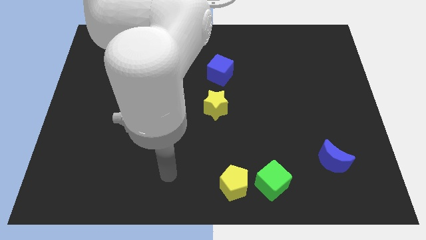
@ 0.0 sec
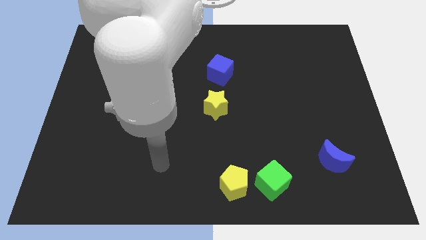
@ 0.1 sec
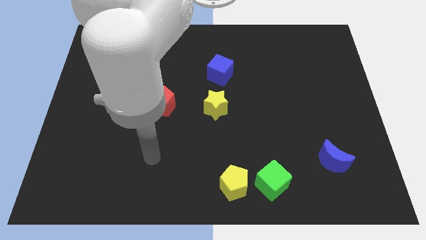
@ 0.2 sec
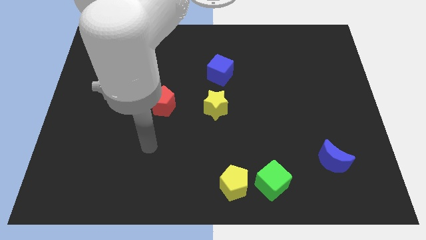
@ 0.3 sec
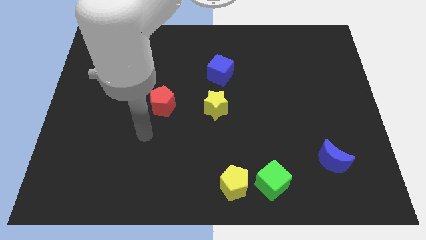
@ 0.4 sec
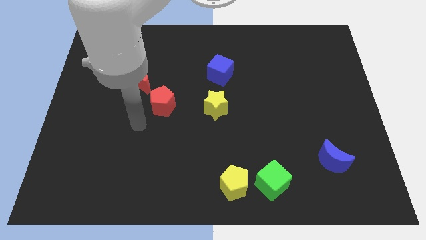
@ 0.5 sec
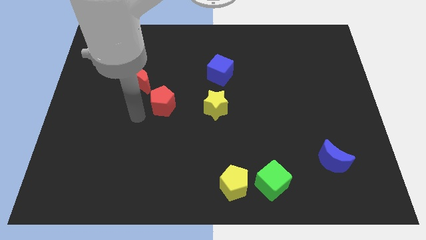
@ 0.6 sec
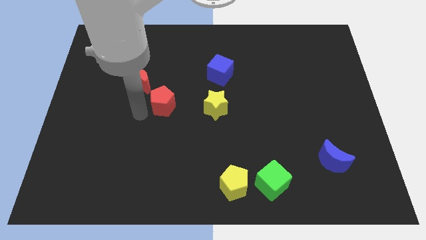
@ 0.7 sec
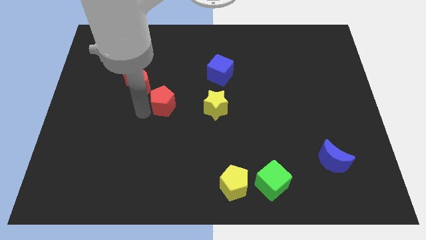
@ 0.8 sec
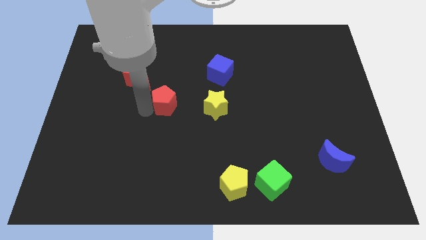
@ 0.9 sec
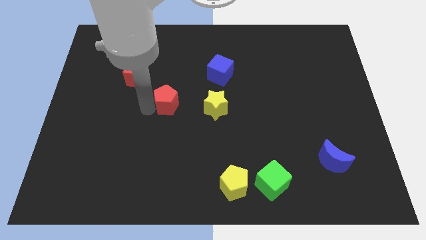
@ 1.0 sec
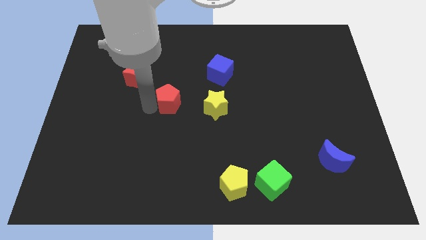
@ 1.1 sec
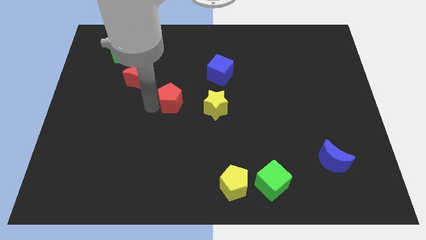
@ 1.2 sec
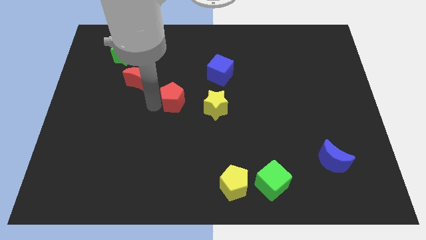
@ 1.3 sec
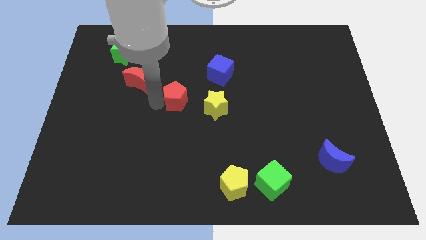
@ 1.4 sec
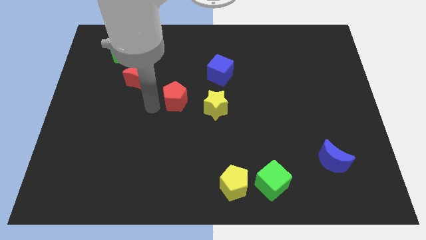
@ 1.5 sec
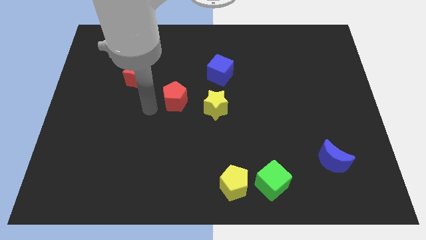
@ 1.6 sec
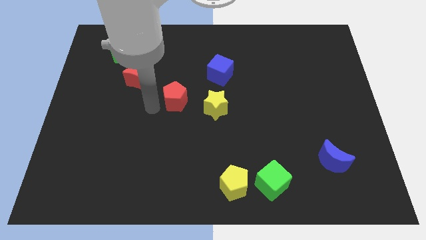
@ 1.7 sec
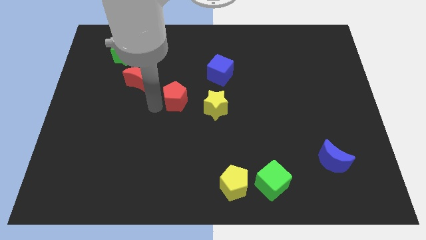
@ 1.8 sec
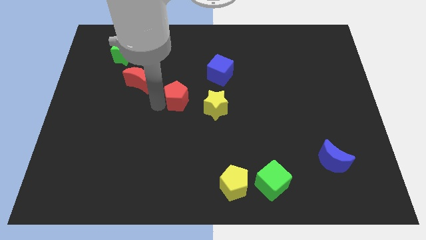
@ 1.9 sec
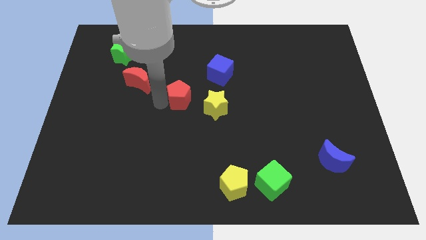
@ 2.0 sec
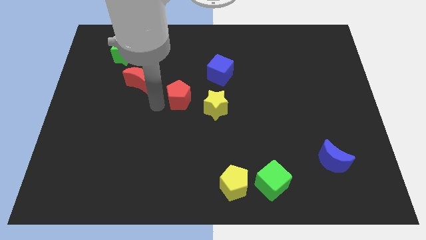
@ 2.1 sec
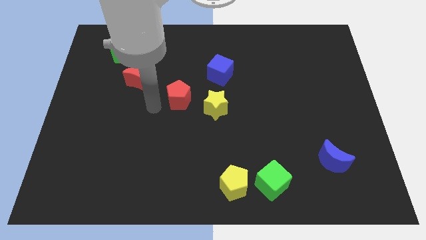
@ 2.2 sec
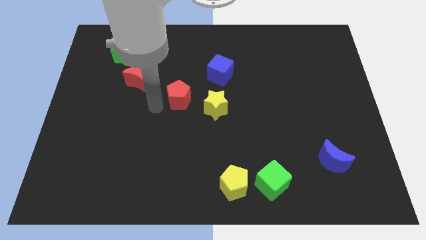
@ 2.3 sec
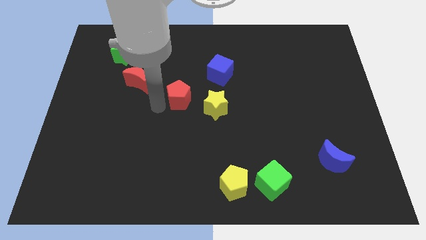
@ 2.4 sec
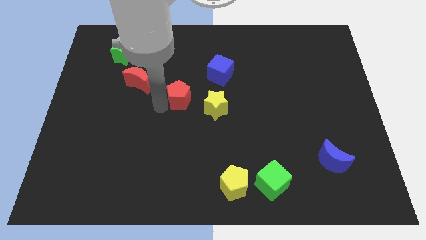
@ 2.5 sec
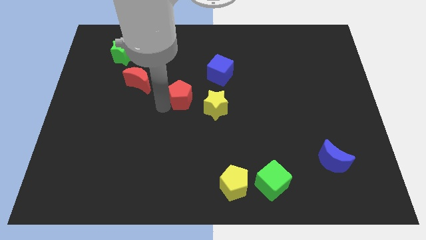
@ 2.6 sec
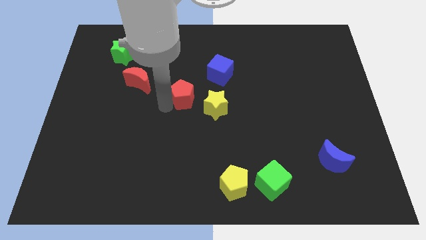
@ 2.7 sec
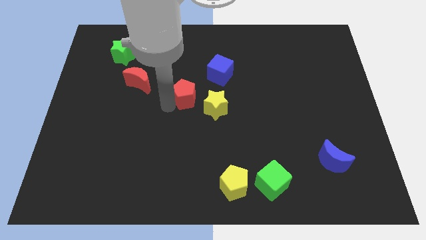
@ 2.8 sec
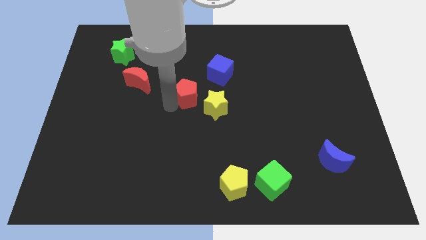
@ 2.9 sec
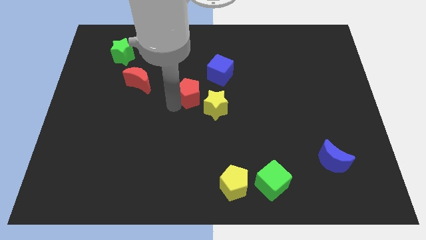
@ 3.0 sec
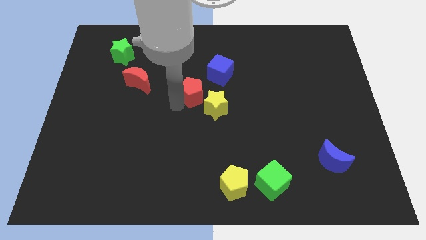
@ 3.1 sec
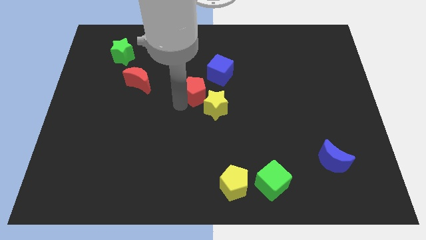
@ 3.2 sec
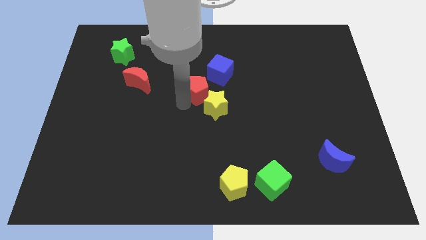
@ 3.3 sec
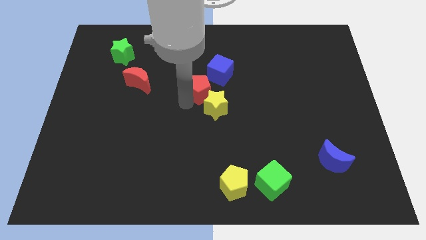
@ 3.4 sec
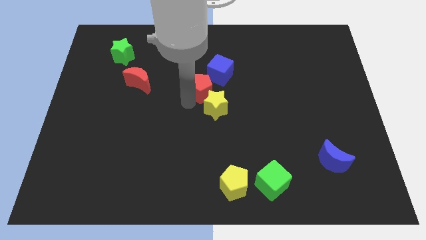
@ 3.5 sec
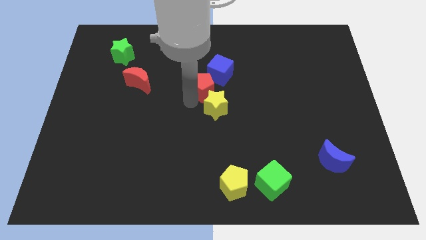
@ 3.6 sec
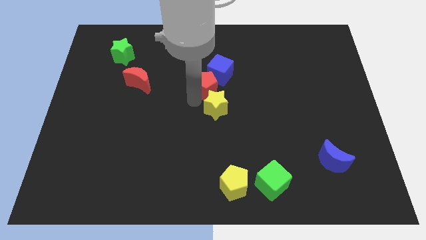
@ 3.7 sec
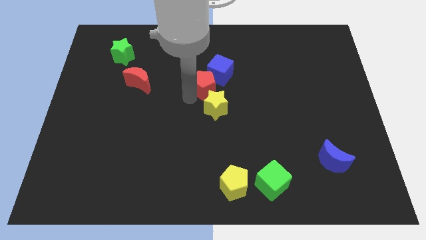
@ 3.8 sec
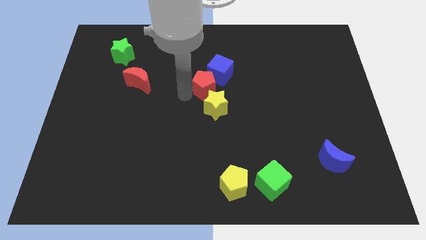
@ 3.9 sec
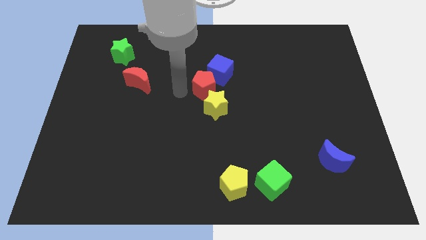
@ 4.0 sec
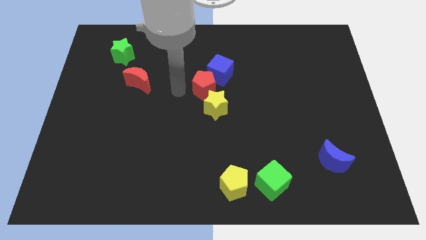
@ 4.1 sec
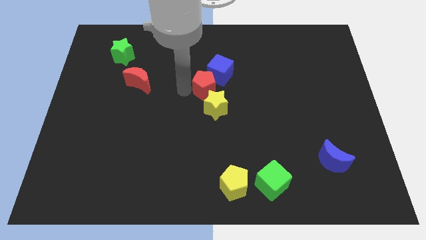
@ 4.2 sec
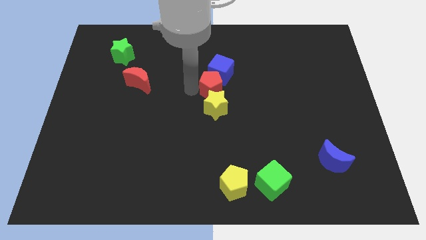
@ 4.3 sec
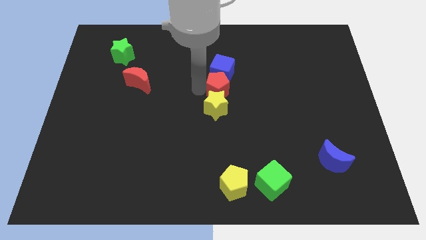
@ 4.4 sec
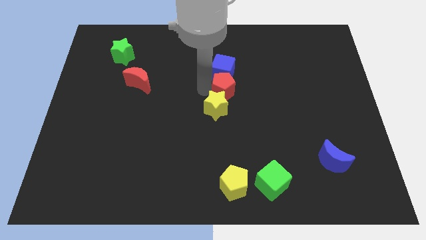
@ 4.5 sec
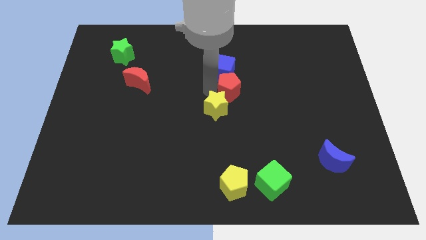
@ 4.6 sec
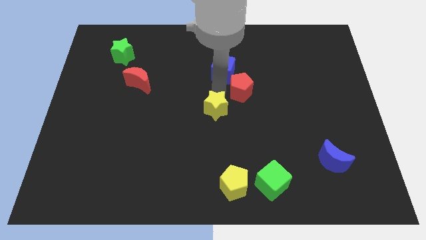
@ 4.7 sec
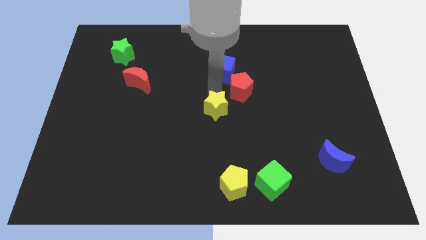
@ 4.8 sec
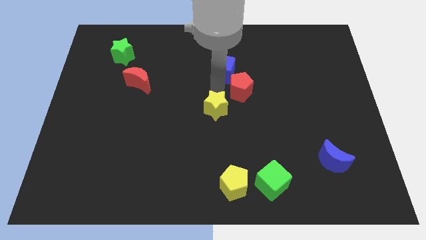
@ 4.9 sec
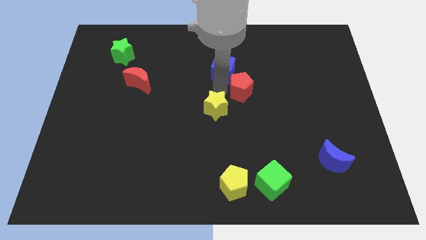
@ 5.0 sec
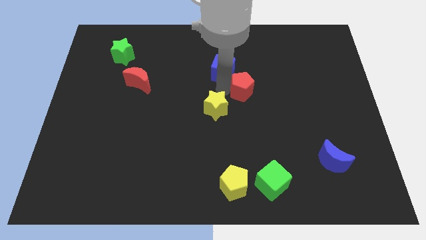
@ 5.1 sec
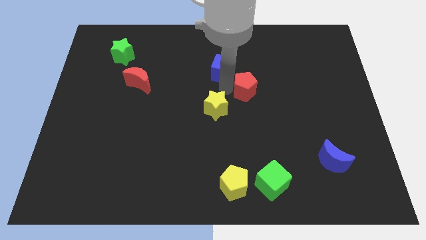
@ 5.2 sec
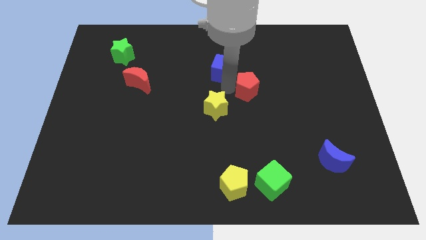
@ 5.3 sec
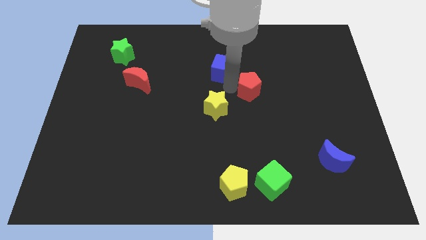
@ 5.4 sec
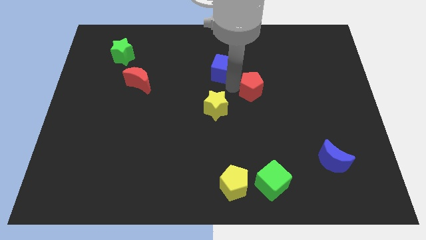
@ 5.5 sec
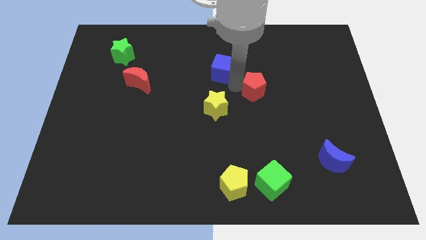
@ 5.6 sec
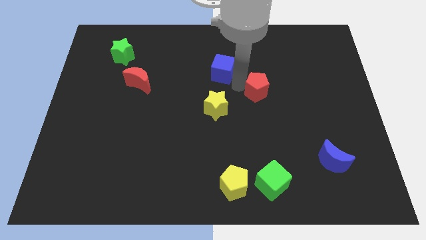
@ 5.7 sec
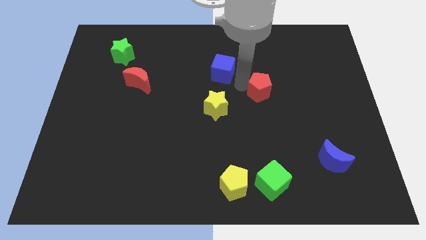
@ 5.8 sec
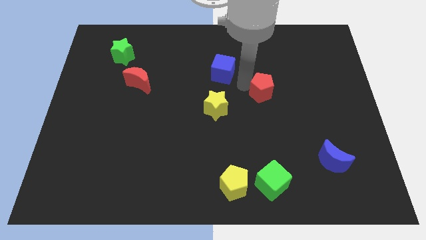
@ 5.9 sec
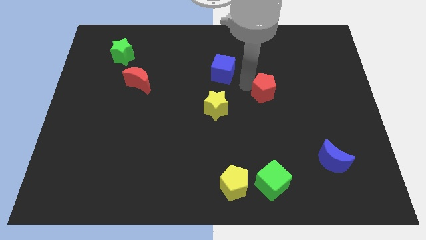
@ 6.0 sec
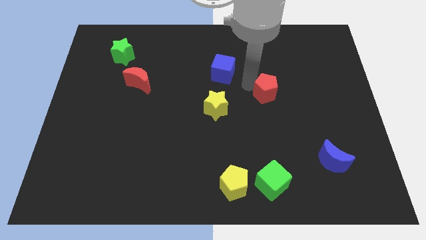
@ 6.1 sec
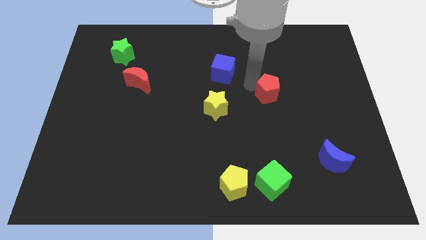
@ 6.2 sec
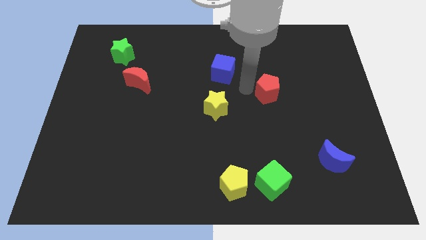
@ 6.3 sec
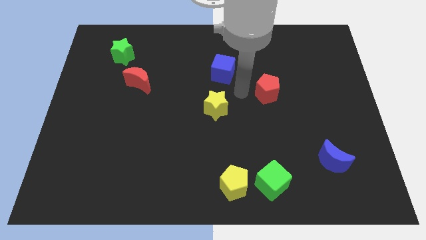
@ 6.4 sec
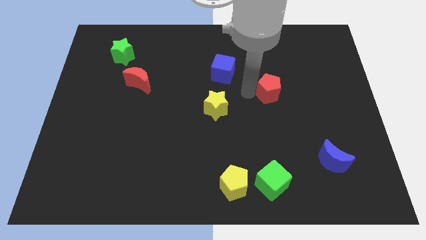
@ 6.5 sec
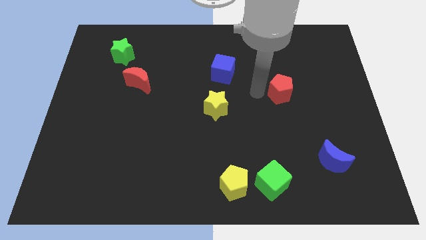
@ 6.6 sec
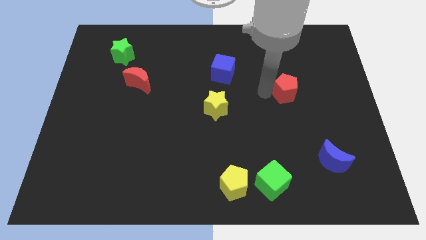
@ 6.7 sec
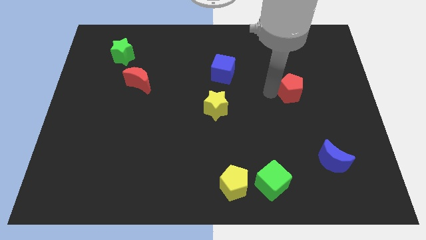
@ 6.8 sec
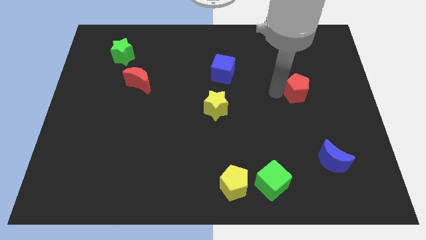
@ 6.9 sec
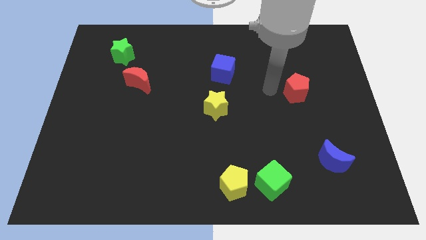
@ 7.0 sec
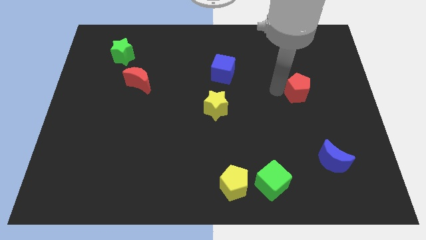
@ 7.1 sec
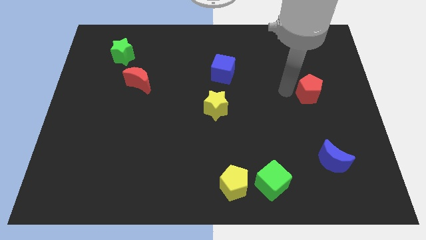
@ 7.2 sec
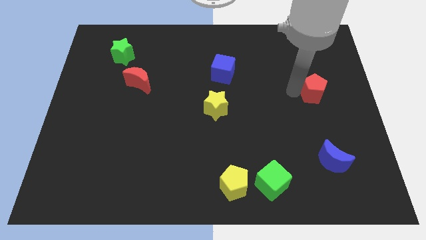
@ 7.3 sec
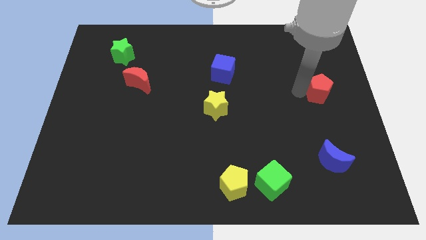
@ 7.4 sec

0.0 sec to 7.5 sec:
push the red pentagon to the right side of the board
